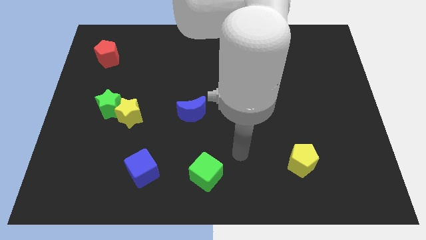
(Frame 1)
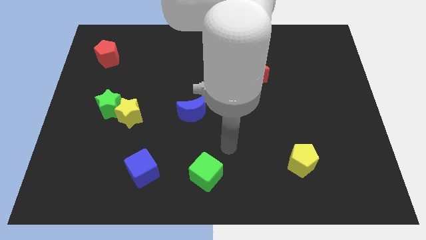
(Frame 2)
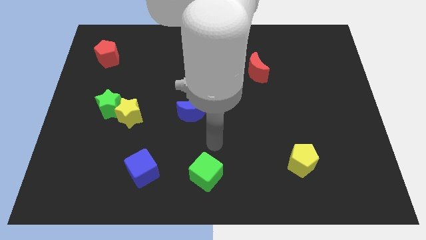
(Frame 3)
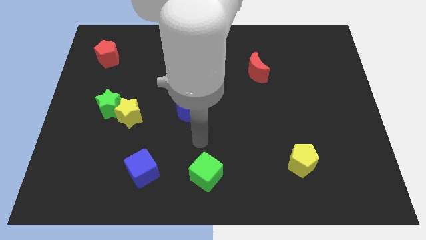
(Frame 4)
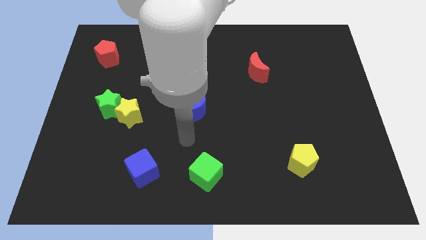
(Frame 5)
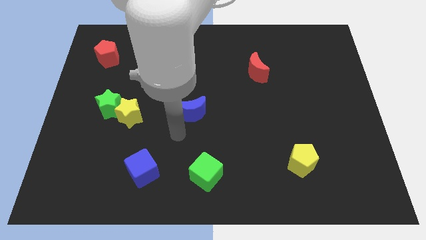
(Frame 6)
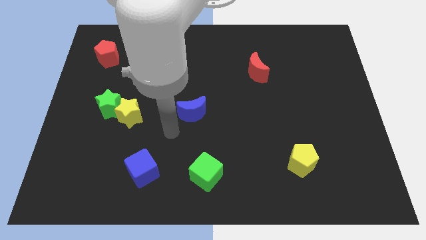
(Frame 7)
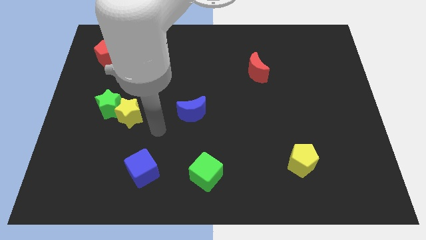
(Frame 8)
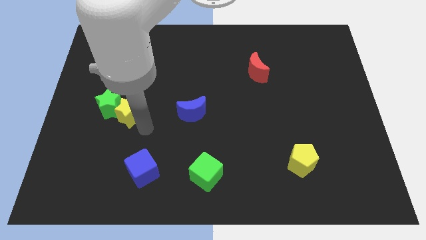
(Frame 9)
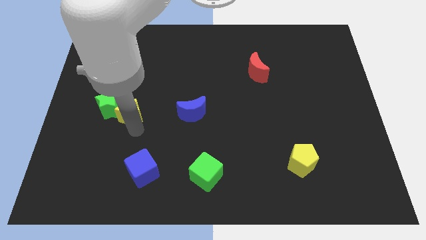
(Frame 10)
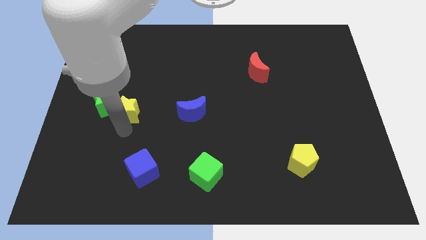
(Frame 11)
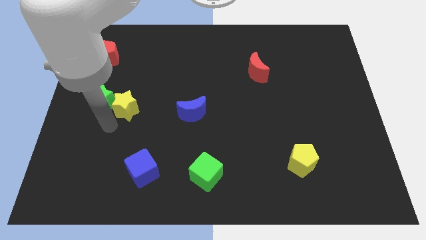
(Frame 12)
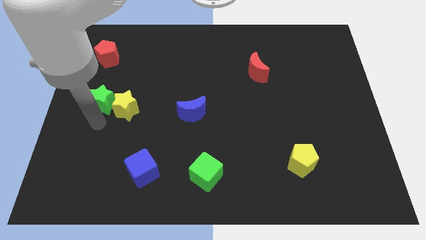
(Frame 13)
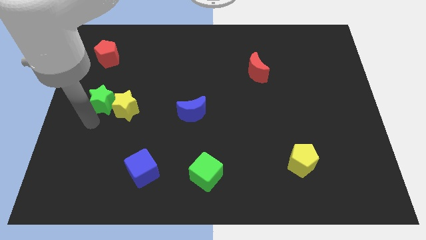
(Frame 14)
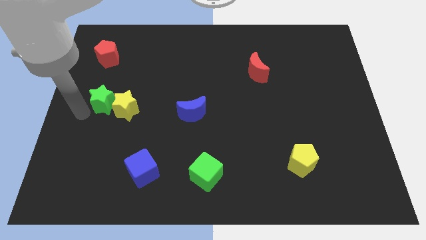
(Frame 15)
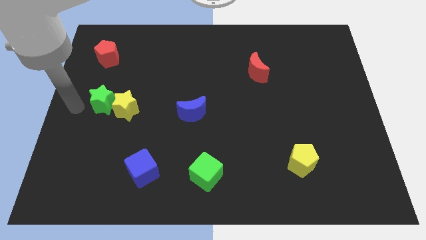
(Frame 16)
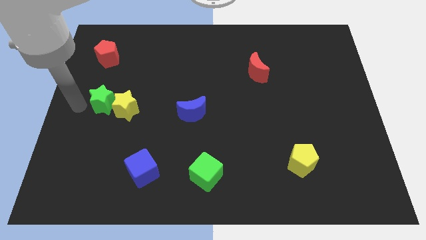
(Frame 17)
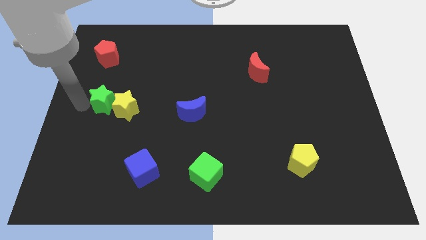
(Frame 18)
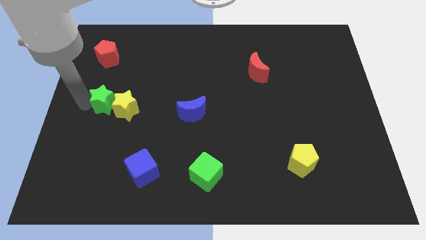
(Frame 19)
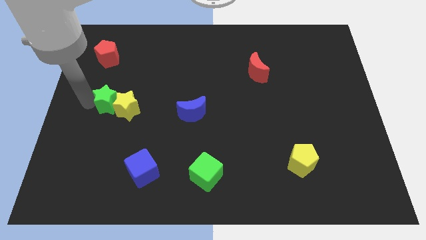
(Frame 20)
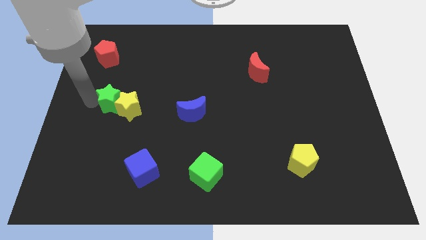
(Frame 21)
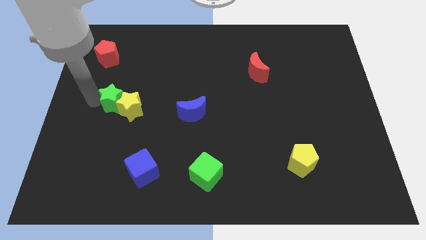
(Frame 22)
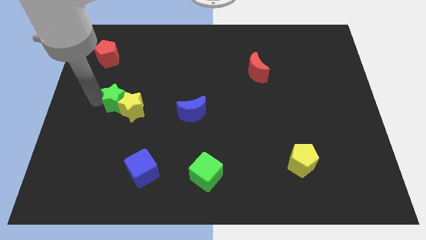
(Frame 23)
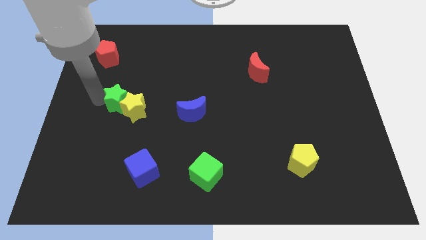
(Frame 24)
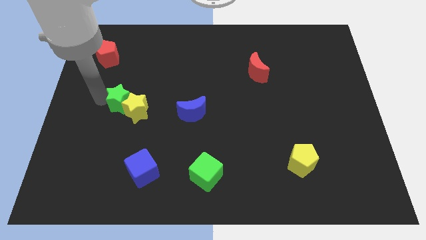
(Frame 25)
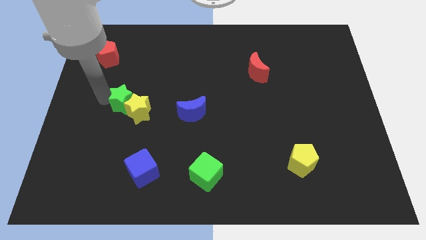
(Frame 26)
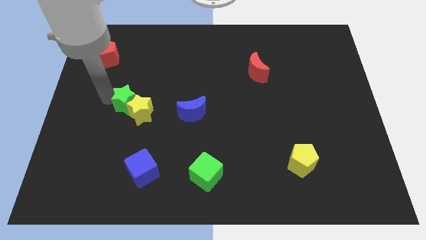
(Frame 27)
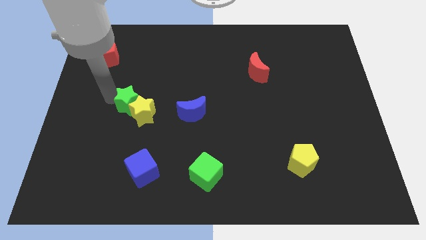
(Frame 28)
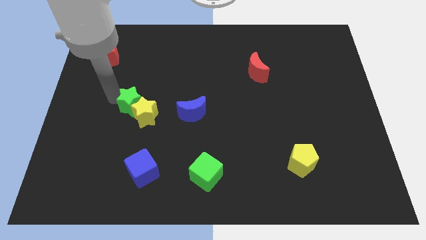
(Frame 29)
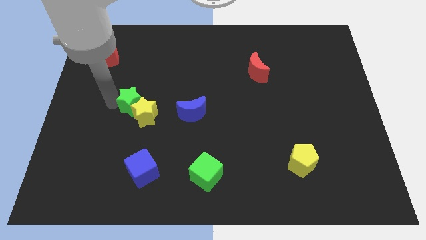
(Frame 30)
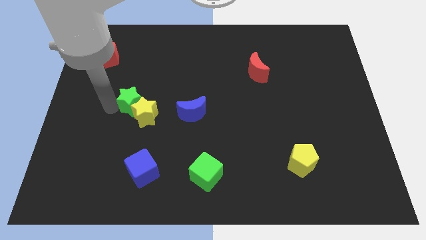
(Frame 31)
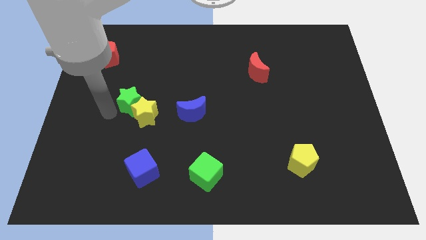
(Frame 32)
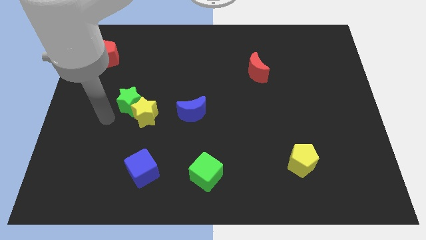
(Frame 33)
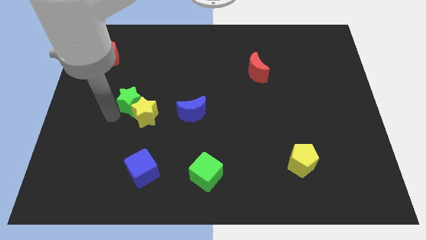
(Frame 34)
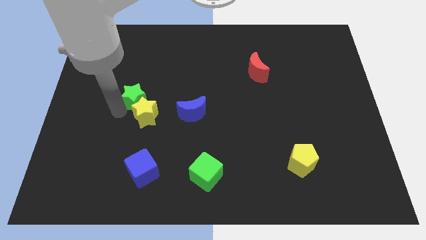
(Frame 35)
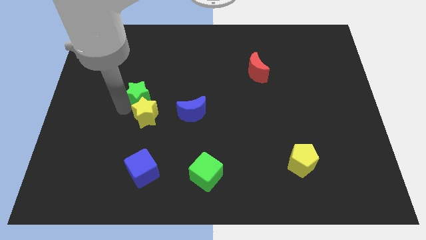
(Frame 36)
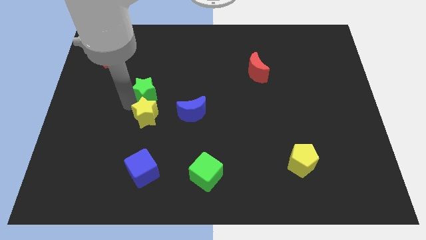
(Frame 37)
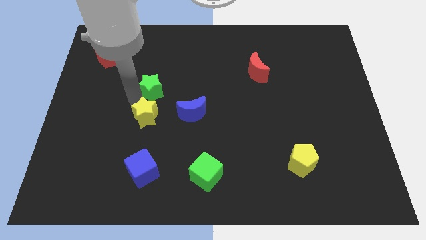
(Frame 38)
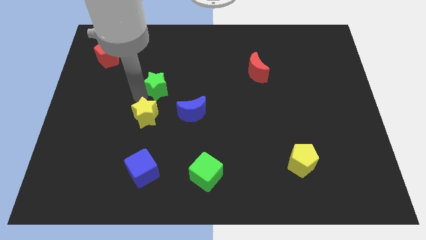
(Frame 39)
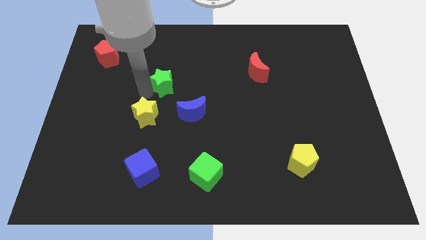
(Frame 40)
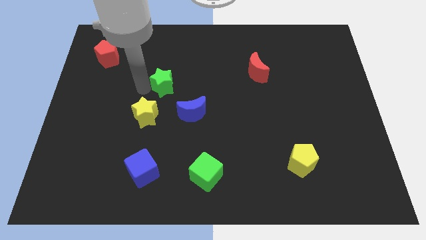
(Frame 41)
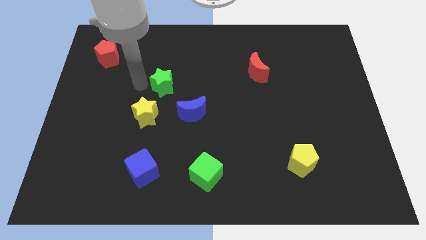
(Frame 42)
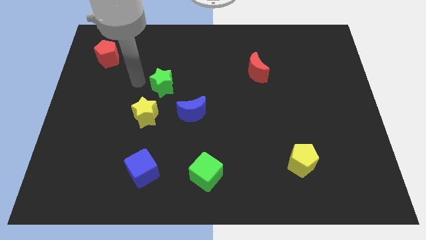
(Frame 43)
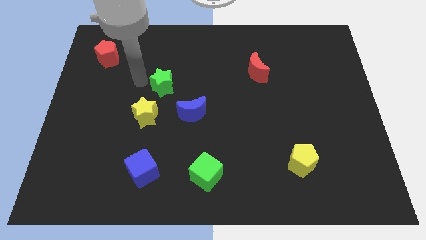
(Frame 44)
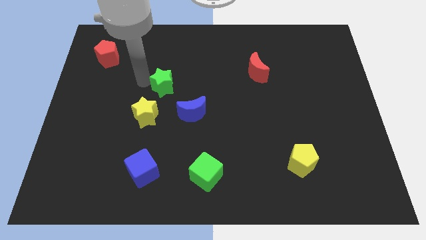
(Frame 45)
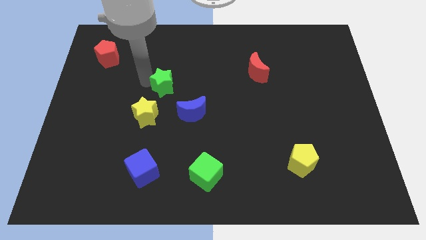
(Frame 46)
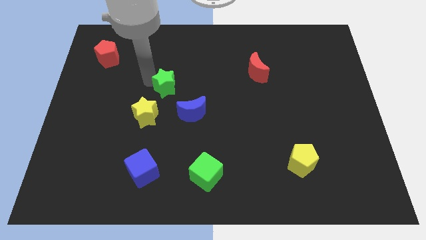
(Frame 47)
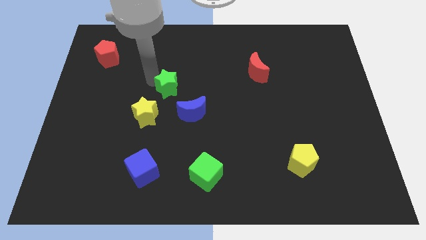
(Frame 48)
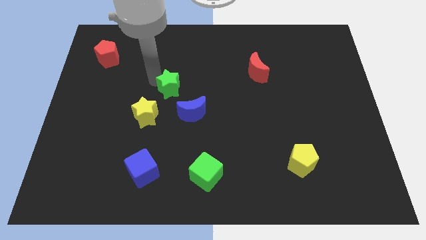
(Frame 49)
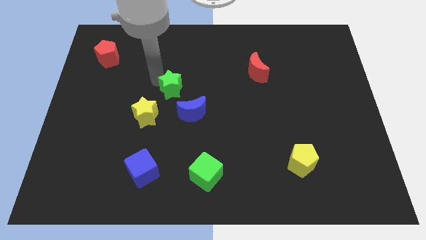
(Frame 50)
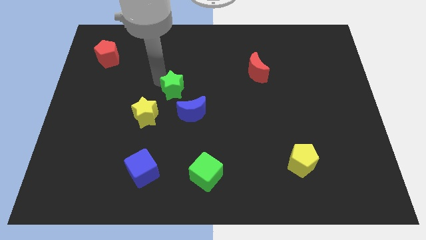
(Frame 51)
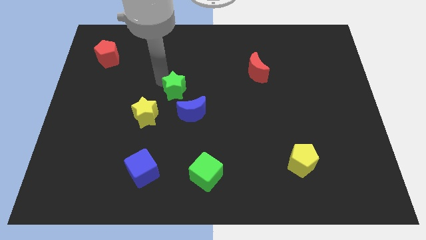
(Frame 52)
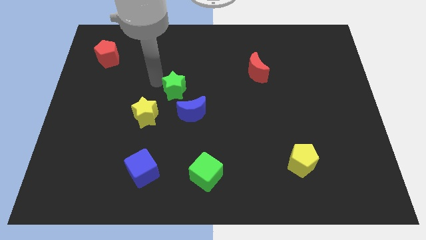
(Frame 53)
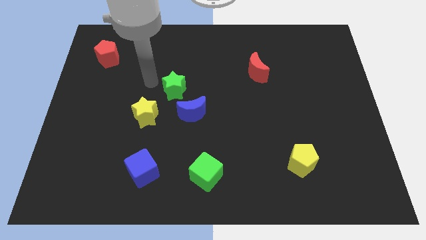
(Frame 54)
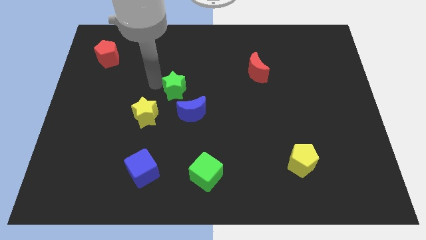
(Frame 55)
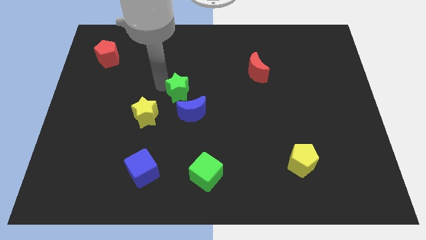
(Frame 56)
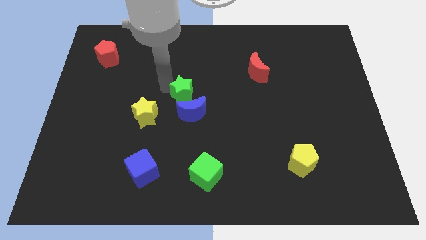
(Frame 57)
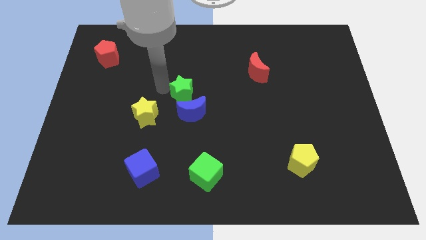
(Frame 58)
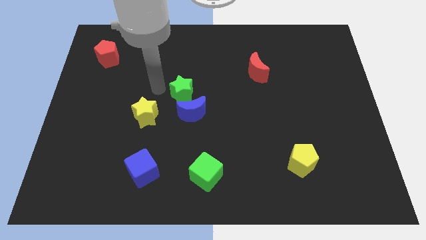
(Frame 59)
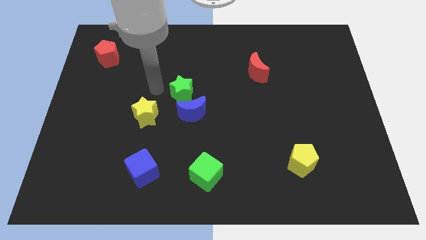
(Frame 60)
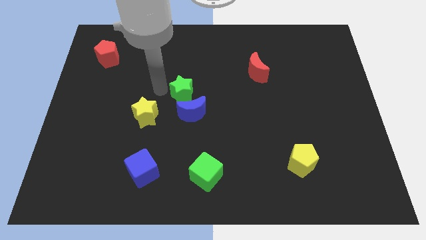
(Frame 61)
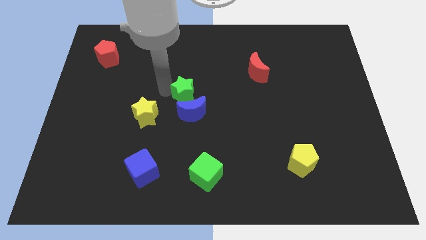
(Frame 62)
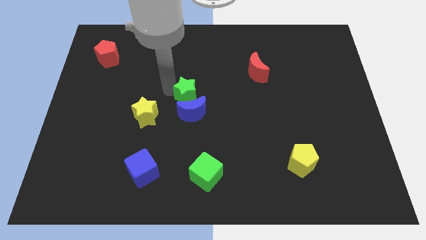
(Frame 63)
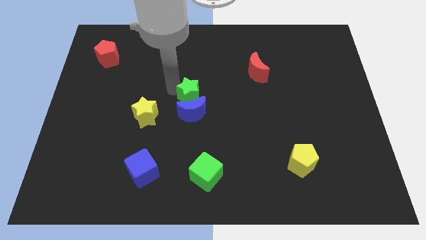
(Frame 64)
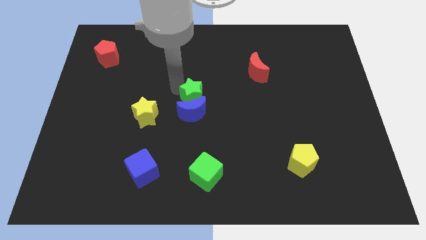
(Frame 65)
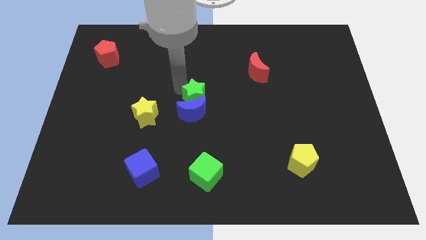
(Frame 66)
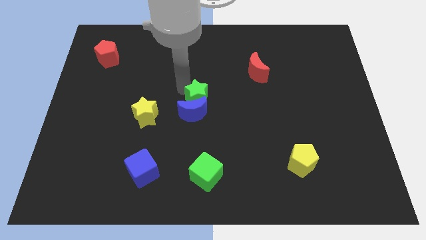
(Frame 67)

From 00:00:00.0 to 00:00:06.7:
move the green star to the right

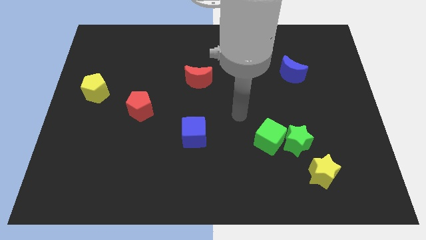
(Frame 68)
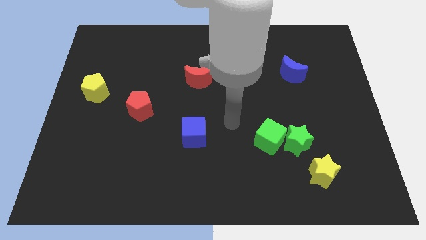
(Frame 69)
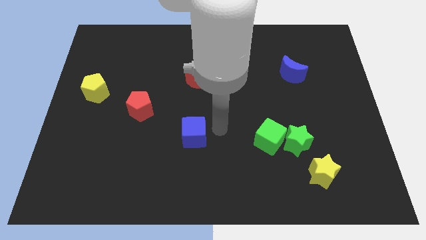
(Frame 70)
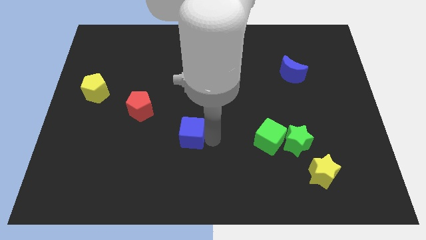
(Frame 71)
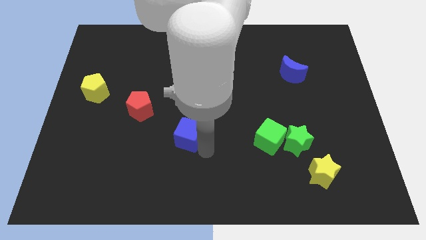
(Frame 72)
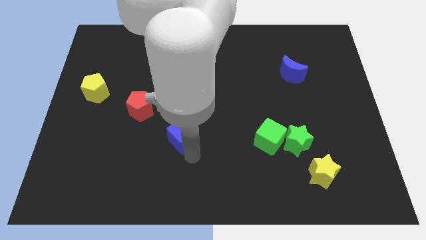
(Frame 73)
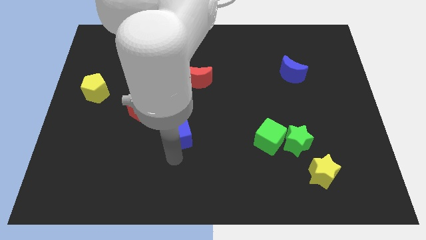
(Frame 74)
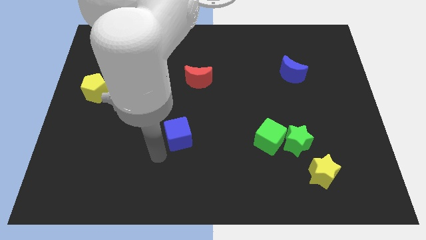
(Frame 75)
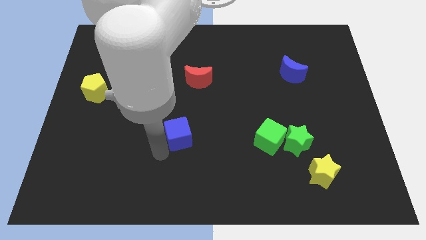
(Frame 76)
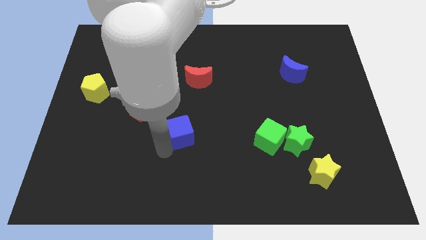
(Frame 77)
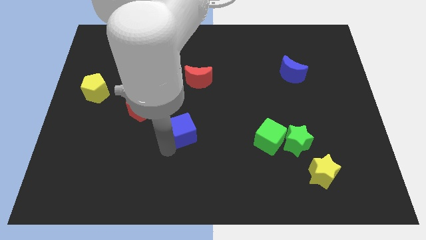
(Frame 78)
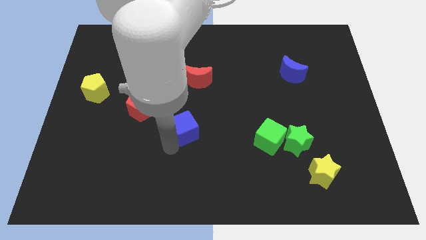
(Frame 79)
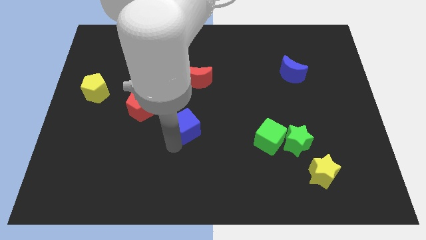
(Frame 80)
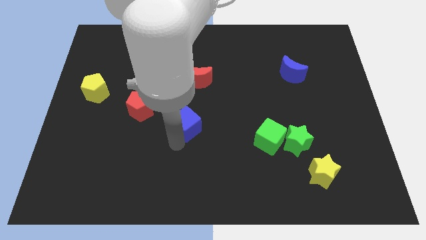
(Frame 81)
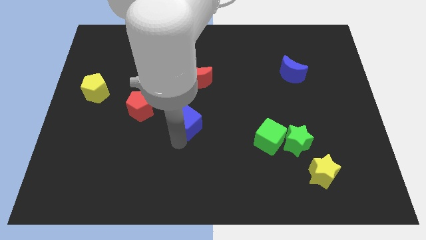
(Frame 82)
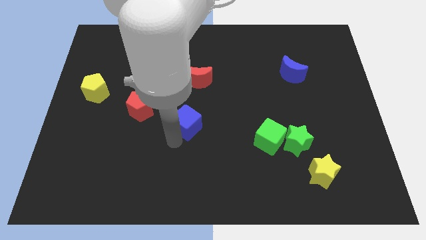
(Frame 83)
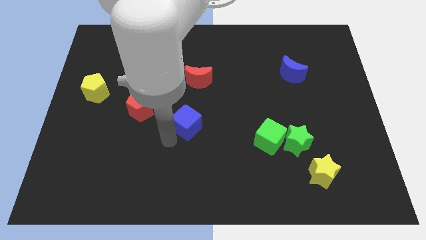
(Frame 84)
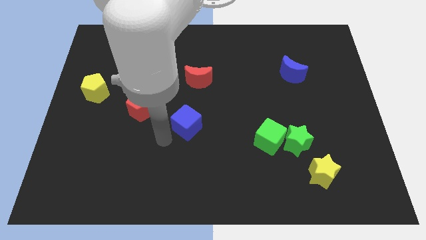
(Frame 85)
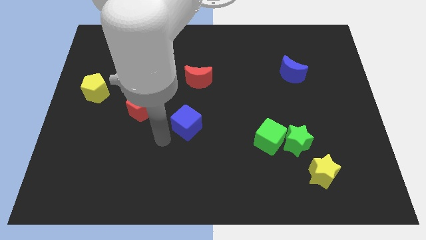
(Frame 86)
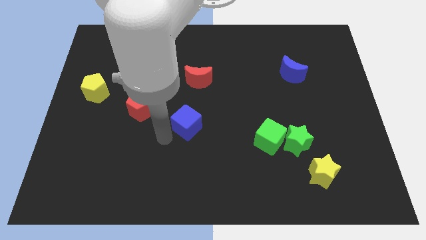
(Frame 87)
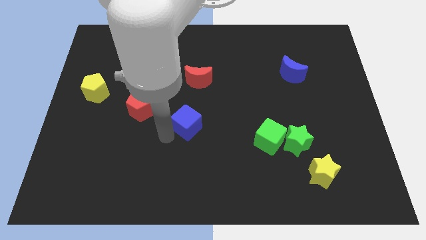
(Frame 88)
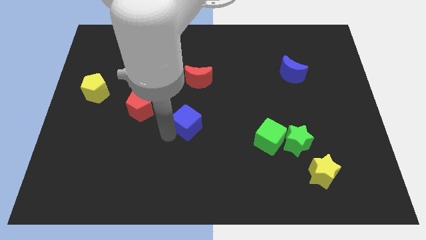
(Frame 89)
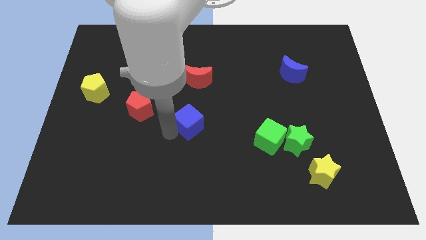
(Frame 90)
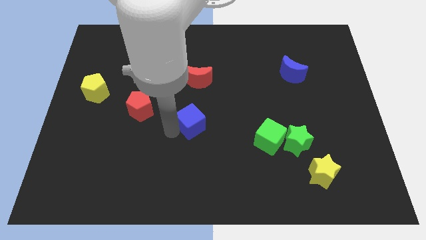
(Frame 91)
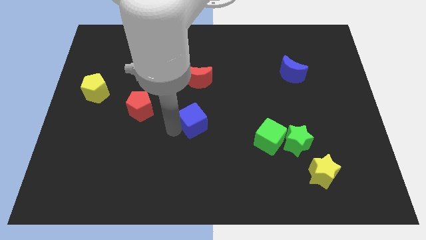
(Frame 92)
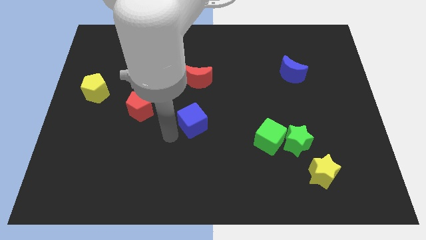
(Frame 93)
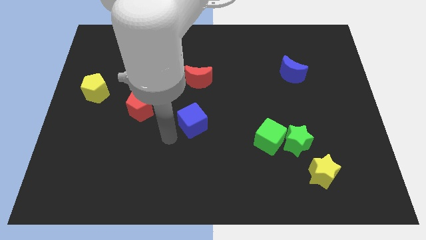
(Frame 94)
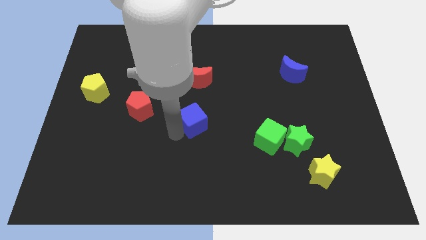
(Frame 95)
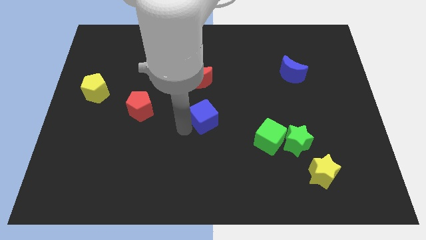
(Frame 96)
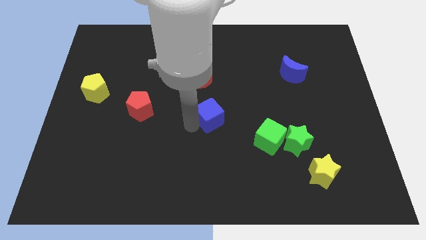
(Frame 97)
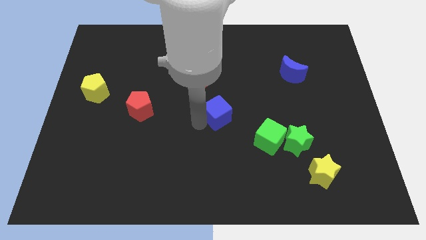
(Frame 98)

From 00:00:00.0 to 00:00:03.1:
push the blue cube a bit up and to the right
